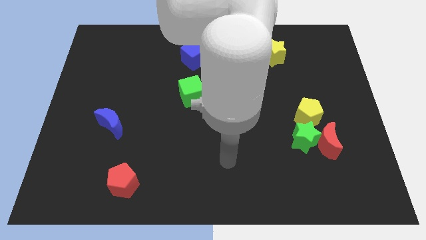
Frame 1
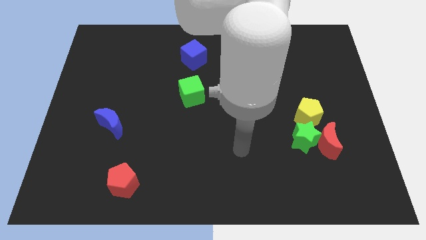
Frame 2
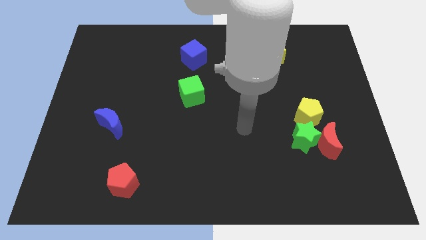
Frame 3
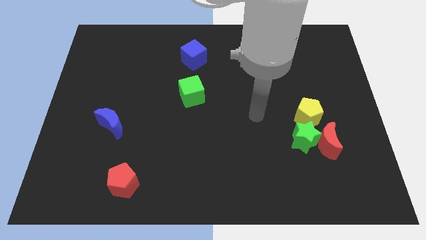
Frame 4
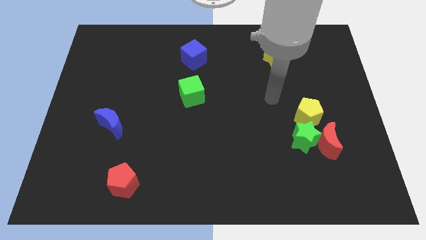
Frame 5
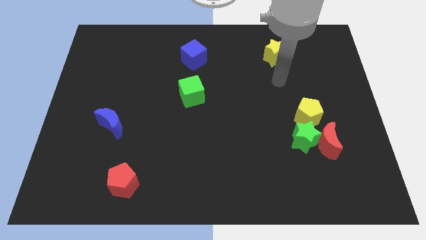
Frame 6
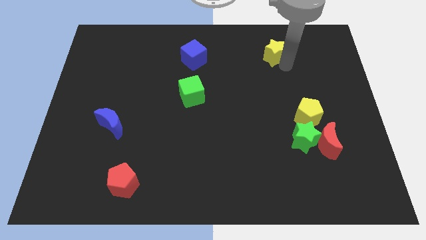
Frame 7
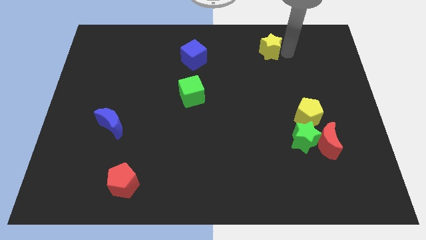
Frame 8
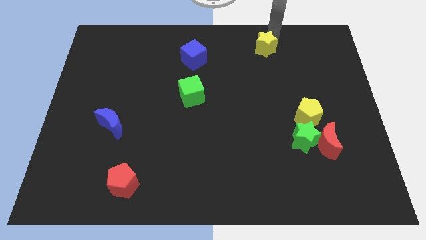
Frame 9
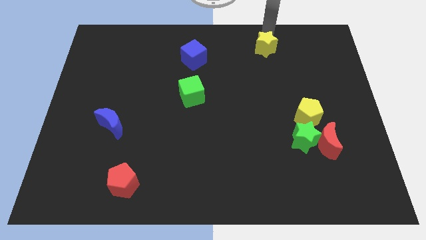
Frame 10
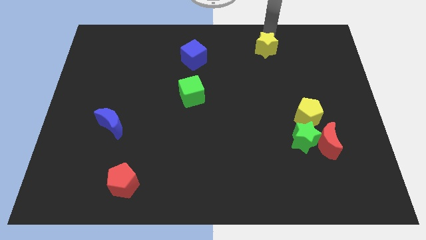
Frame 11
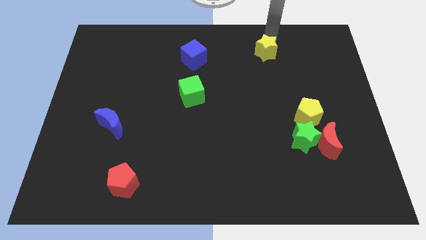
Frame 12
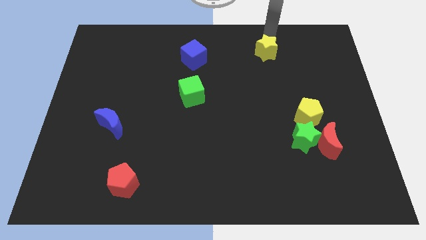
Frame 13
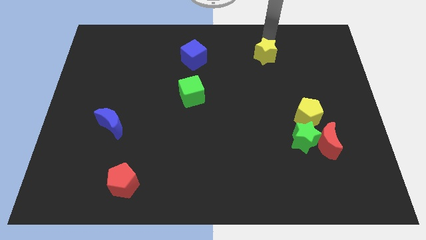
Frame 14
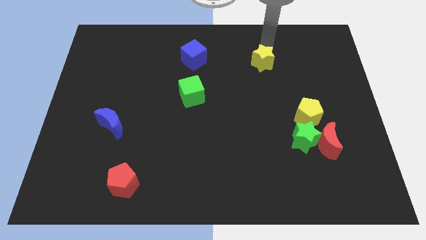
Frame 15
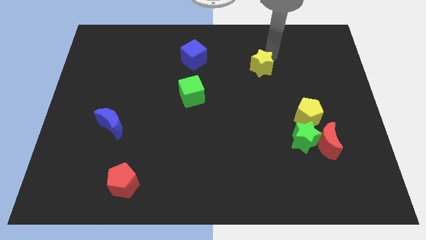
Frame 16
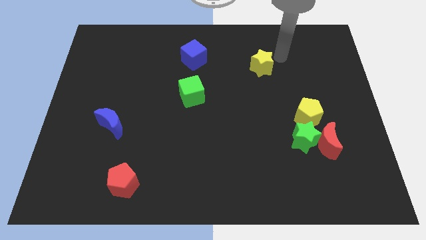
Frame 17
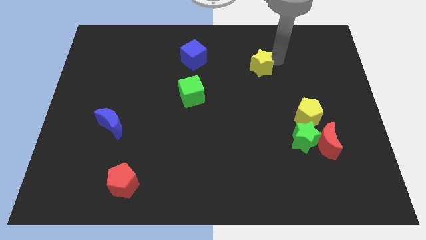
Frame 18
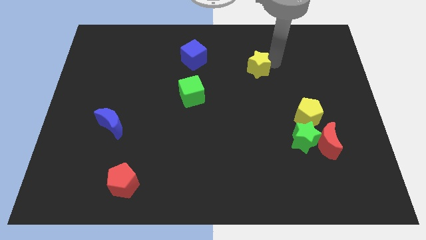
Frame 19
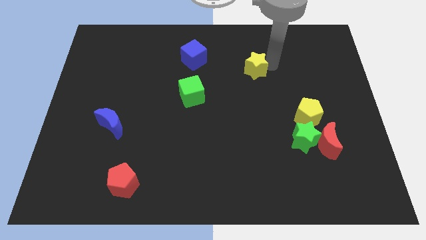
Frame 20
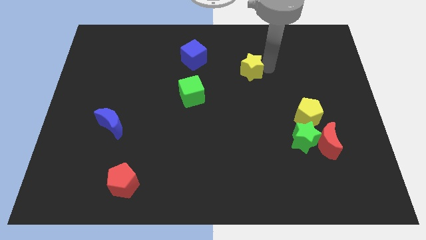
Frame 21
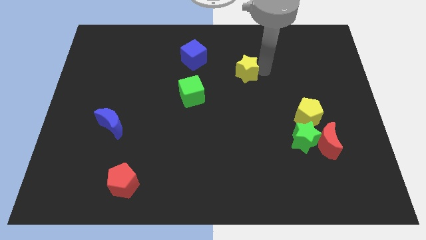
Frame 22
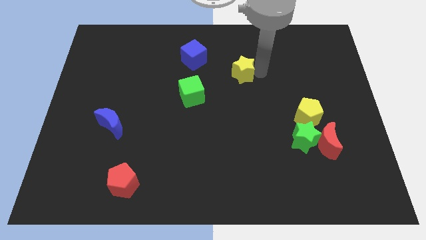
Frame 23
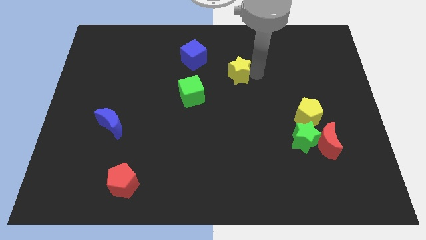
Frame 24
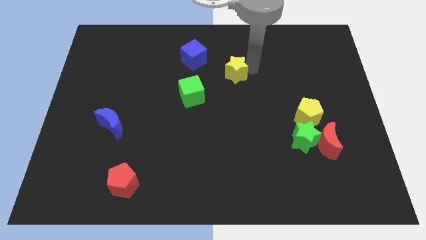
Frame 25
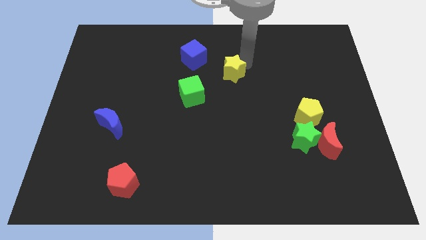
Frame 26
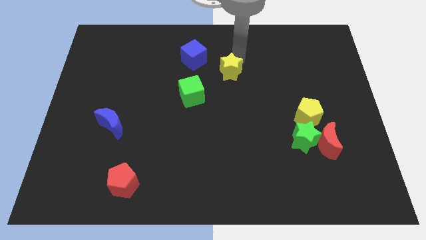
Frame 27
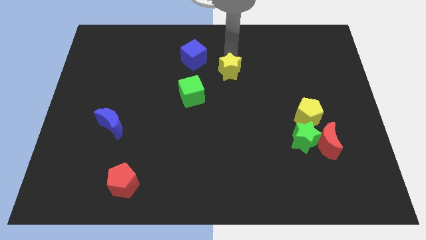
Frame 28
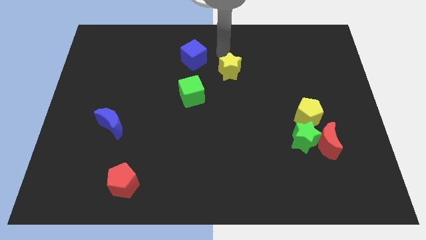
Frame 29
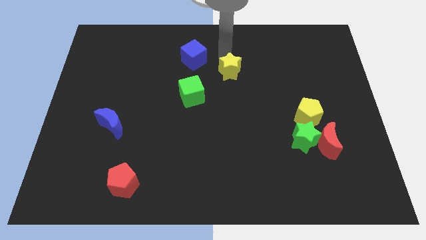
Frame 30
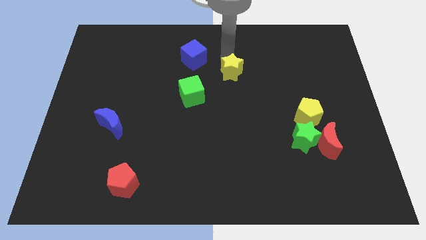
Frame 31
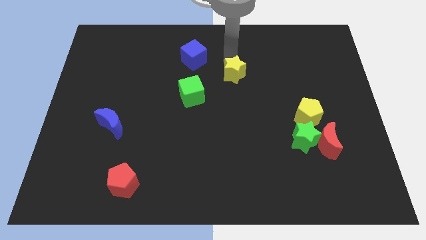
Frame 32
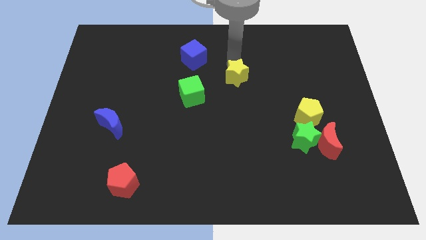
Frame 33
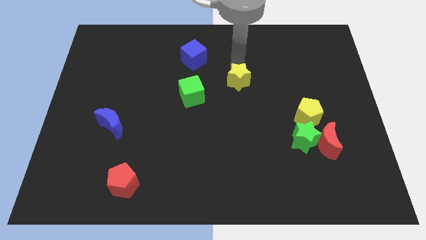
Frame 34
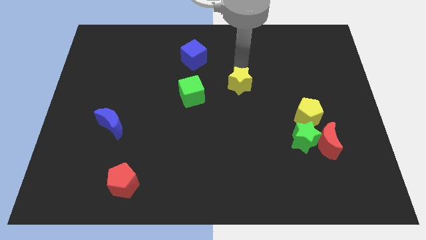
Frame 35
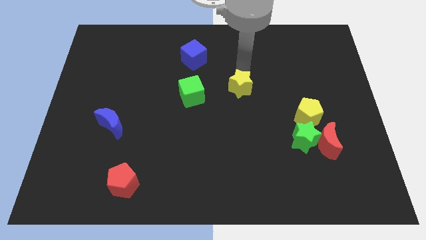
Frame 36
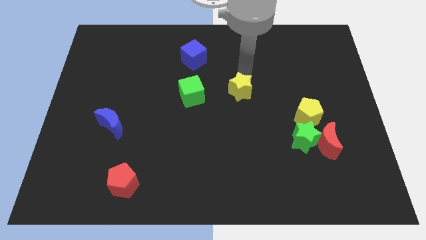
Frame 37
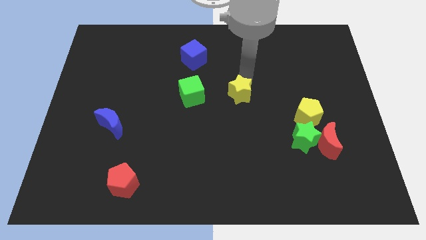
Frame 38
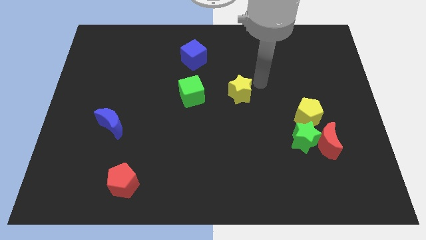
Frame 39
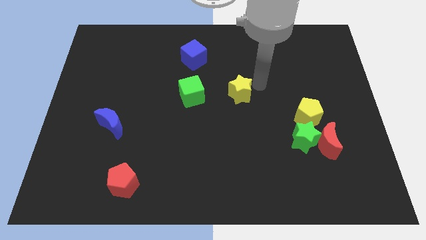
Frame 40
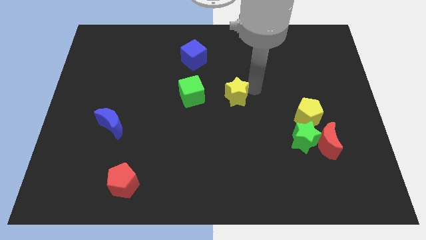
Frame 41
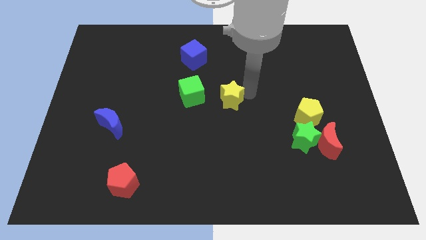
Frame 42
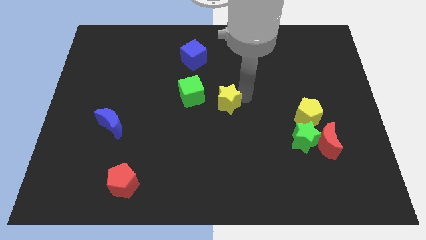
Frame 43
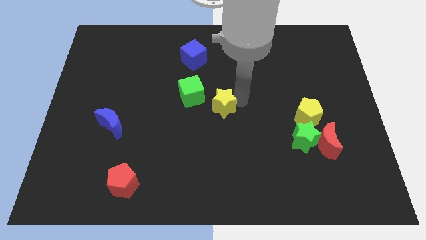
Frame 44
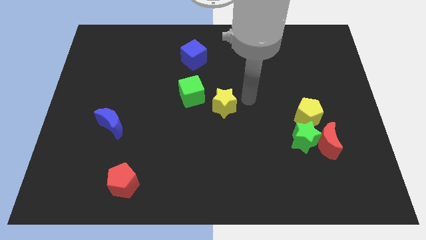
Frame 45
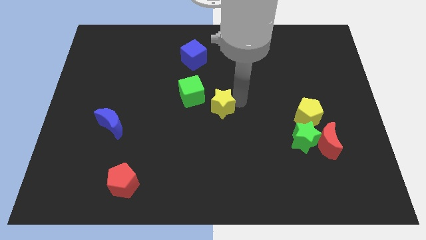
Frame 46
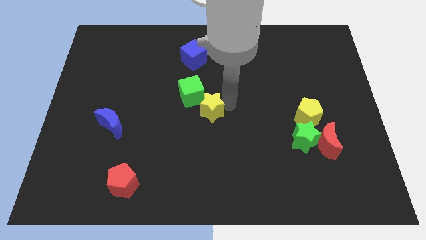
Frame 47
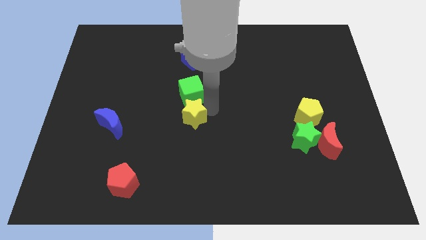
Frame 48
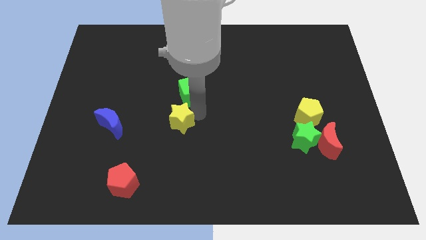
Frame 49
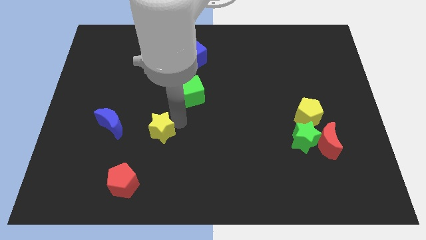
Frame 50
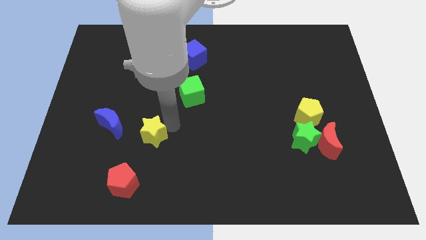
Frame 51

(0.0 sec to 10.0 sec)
push the yellow star to the top of the red pentagon

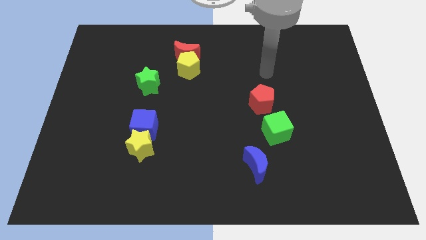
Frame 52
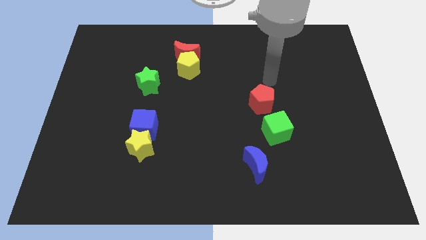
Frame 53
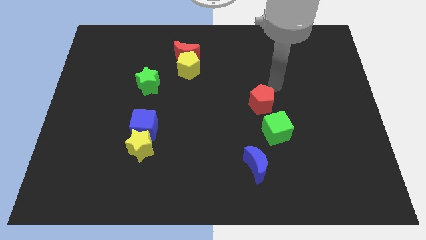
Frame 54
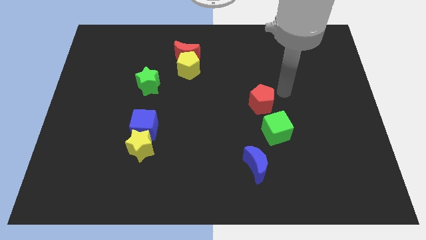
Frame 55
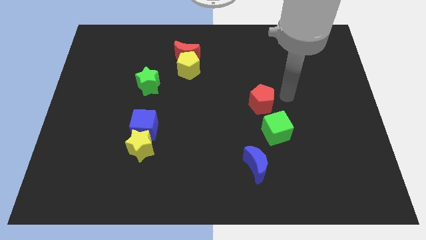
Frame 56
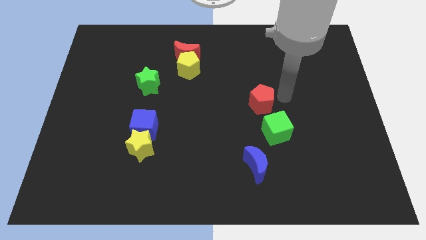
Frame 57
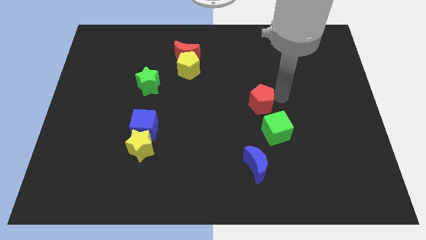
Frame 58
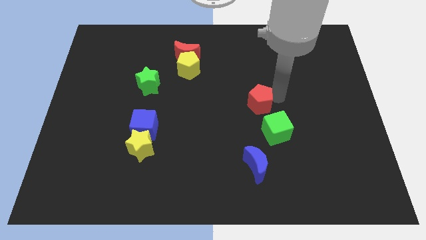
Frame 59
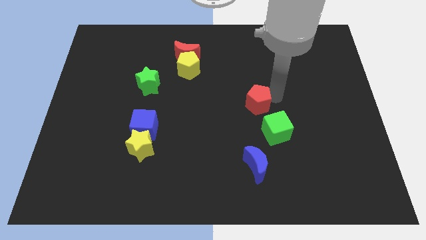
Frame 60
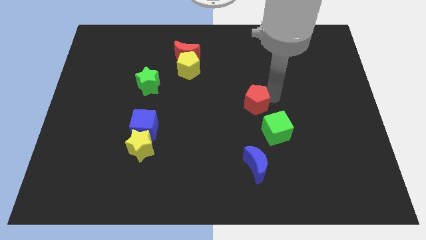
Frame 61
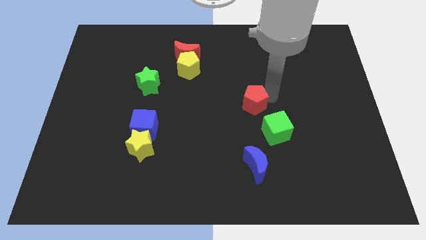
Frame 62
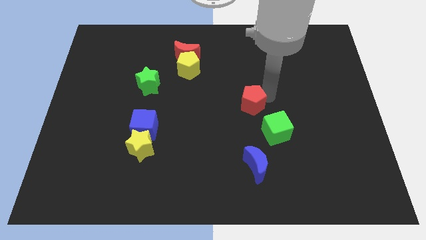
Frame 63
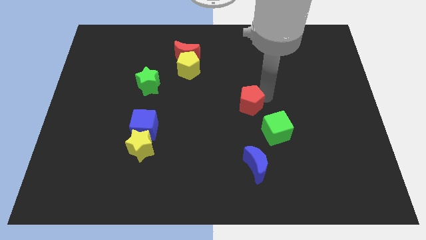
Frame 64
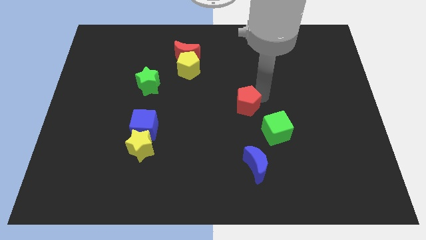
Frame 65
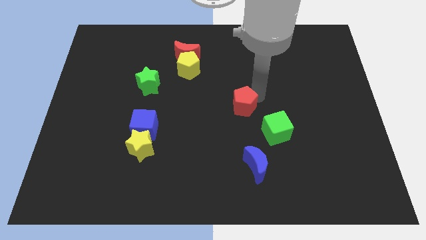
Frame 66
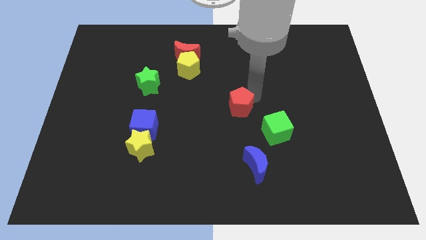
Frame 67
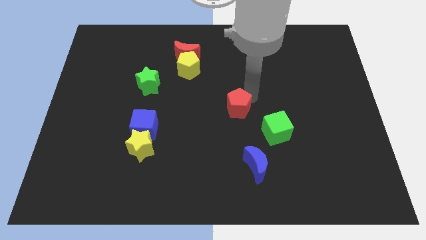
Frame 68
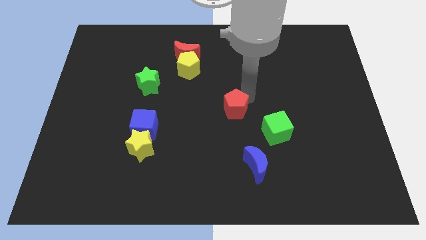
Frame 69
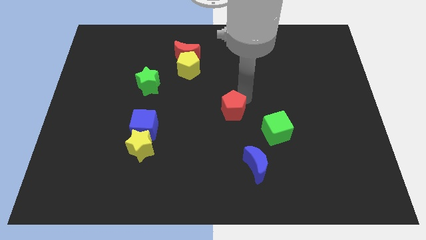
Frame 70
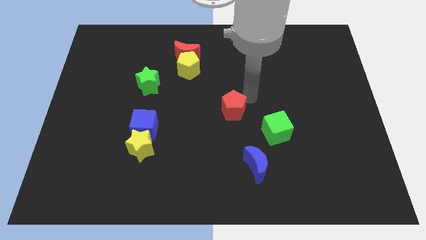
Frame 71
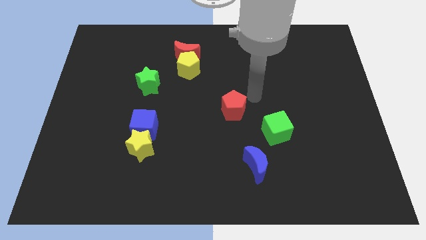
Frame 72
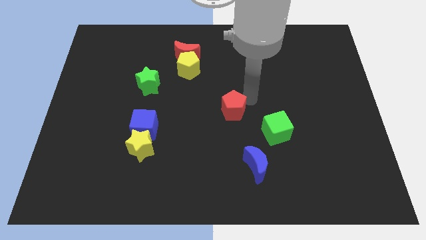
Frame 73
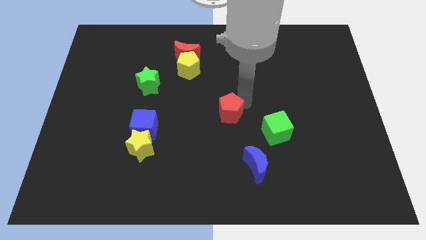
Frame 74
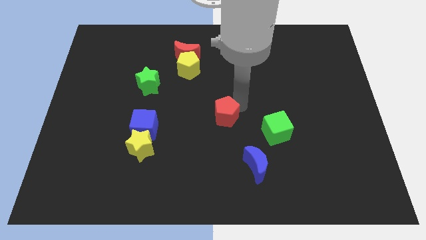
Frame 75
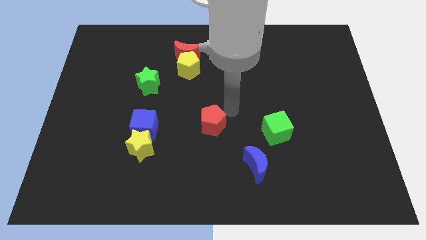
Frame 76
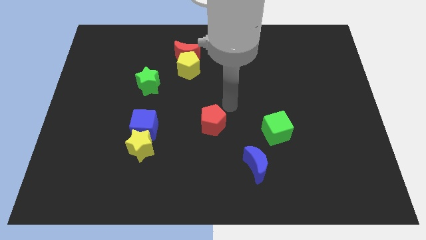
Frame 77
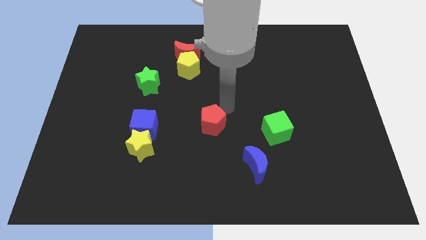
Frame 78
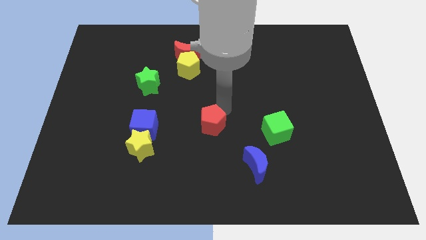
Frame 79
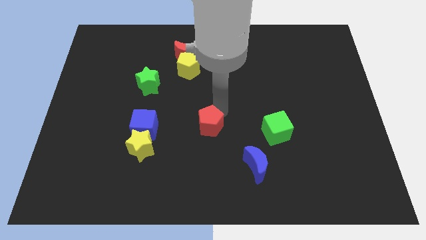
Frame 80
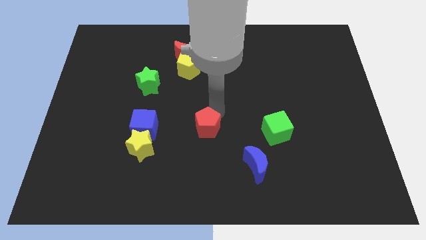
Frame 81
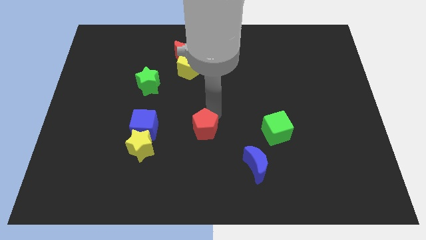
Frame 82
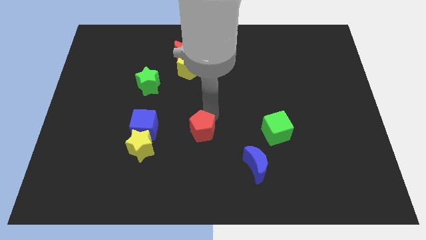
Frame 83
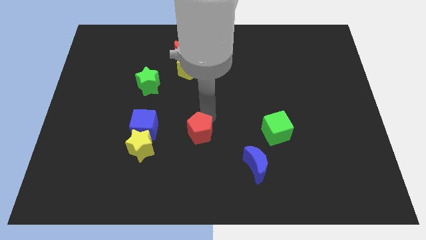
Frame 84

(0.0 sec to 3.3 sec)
put the red pentagon right of the yellow star
